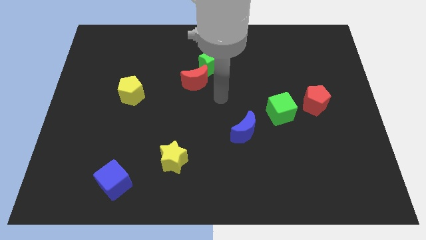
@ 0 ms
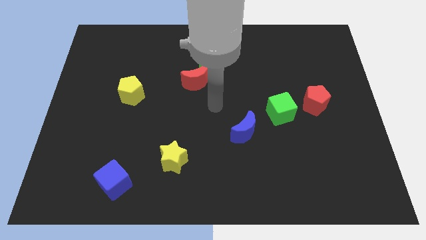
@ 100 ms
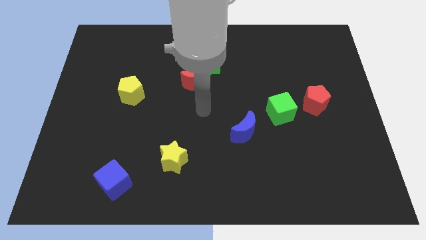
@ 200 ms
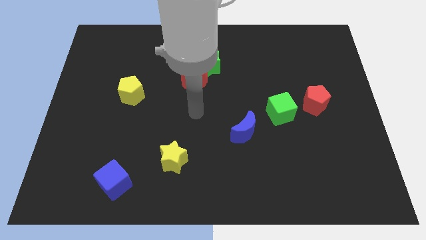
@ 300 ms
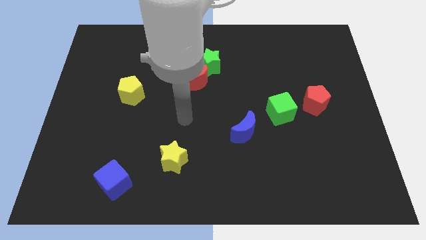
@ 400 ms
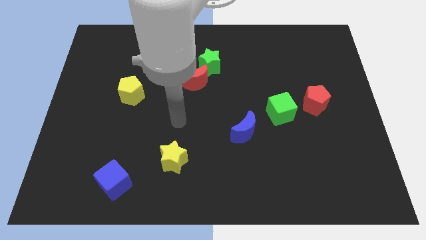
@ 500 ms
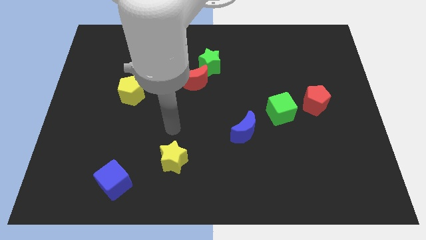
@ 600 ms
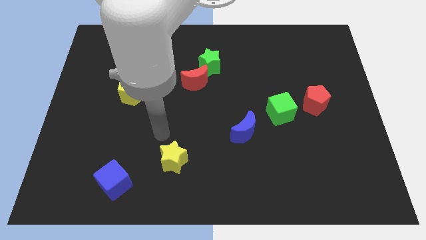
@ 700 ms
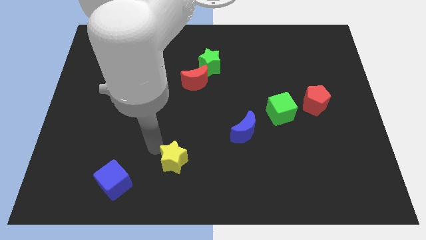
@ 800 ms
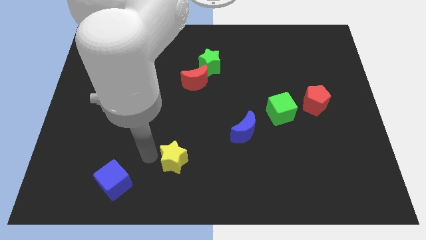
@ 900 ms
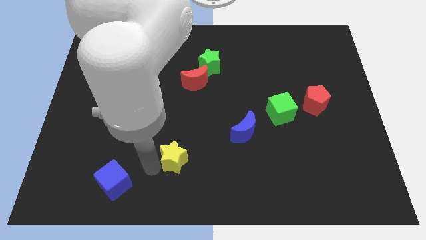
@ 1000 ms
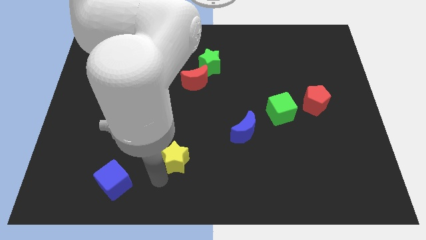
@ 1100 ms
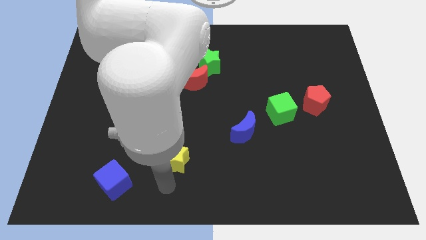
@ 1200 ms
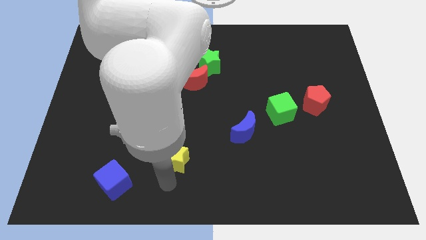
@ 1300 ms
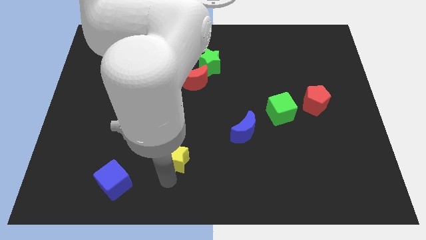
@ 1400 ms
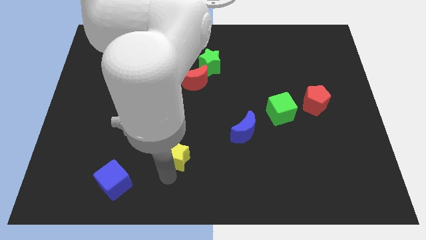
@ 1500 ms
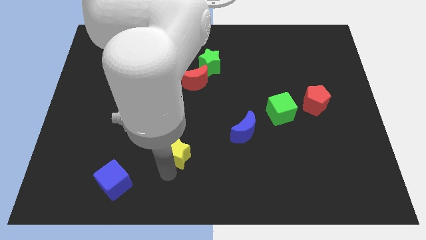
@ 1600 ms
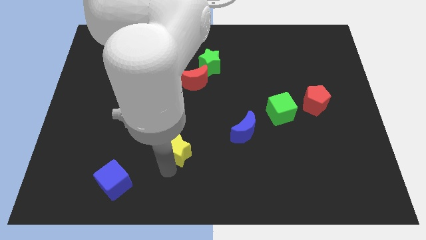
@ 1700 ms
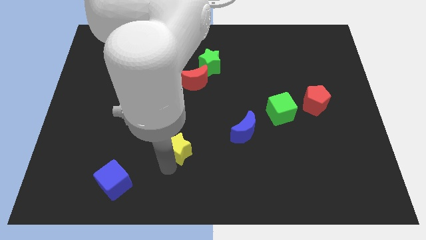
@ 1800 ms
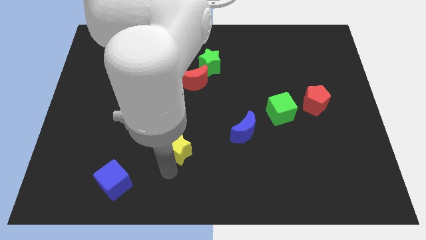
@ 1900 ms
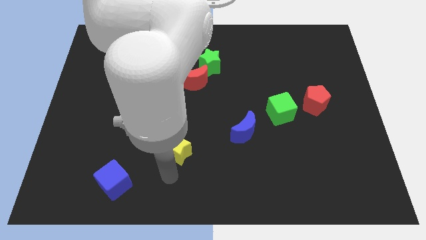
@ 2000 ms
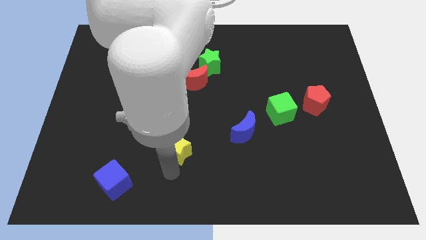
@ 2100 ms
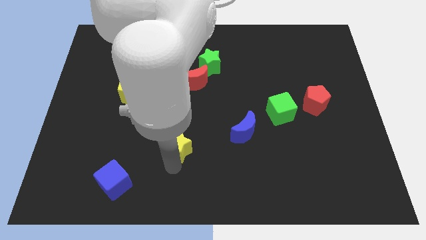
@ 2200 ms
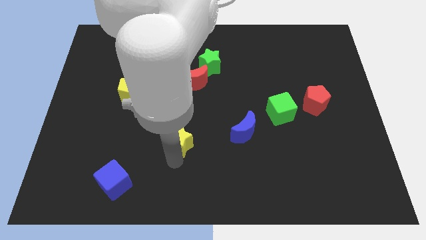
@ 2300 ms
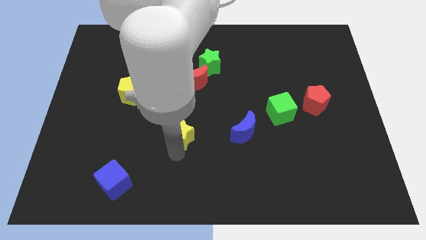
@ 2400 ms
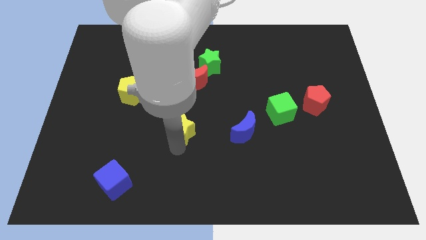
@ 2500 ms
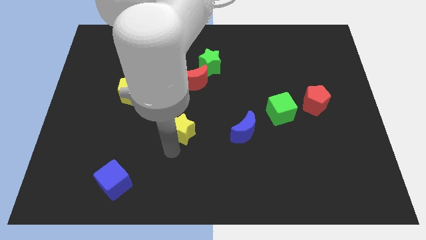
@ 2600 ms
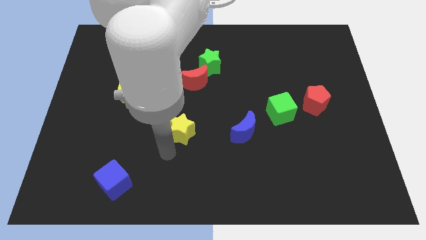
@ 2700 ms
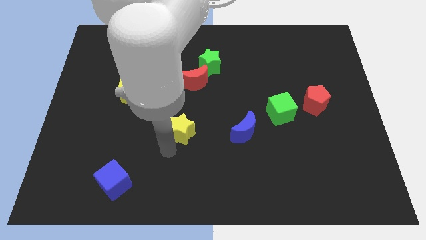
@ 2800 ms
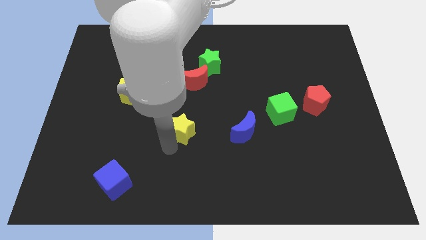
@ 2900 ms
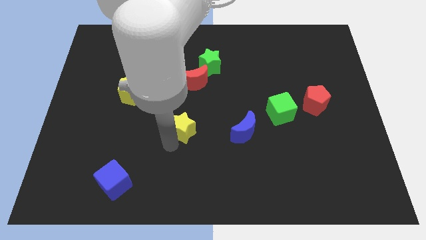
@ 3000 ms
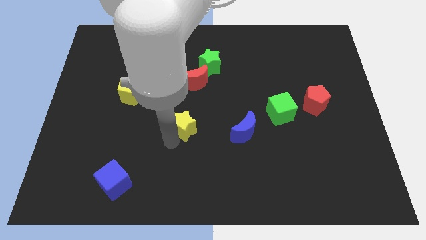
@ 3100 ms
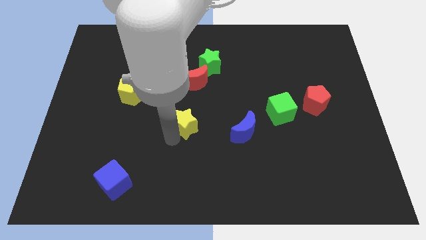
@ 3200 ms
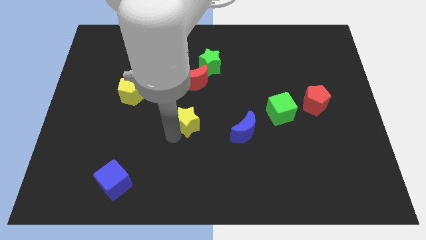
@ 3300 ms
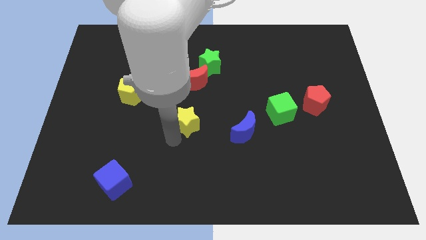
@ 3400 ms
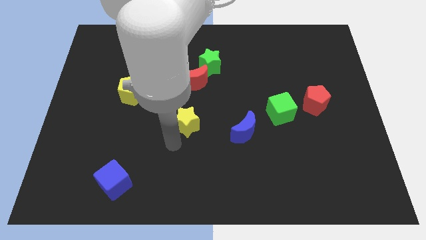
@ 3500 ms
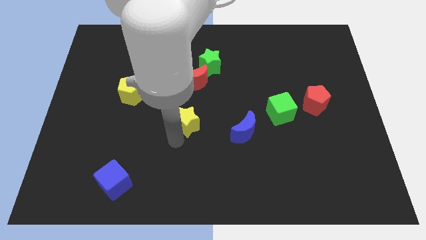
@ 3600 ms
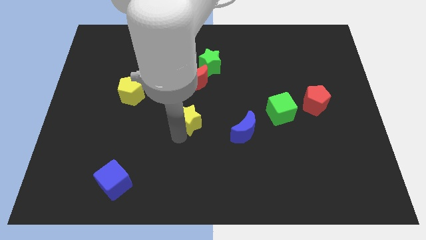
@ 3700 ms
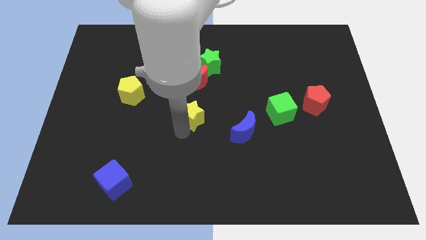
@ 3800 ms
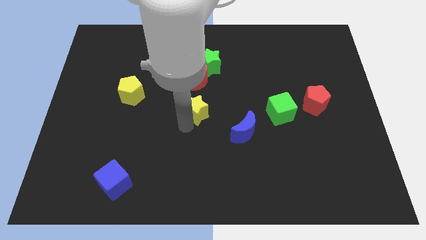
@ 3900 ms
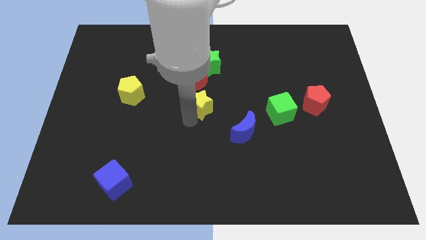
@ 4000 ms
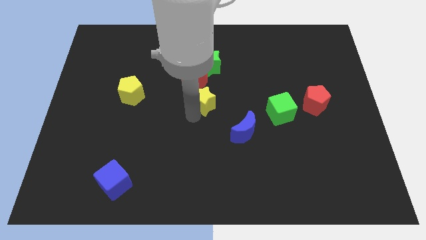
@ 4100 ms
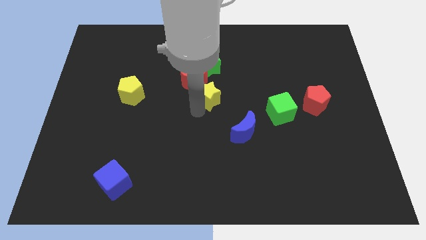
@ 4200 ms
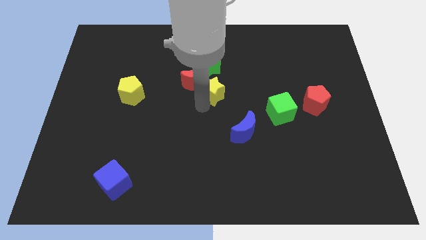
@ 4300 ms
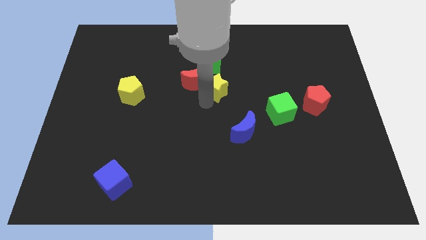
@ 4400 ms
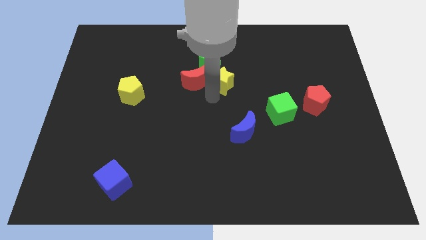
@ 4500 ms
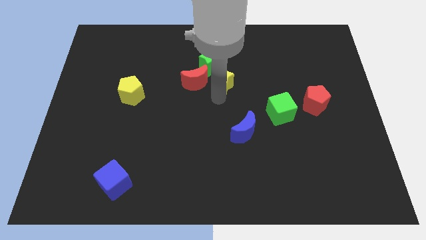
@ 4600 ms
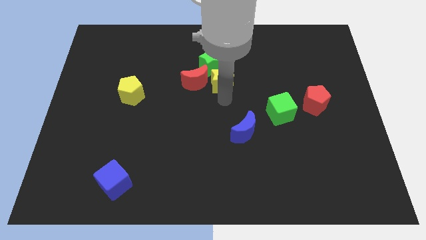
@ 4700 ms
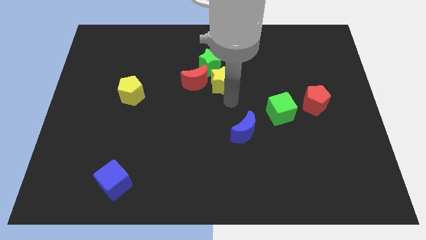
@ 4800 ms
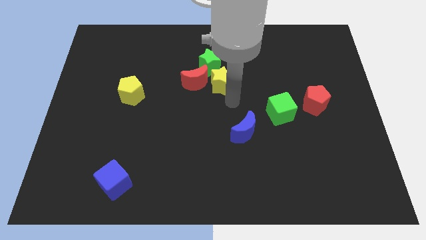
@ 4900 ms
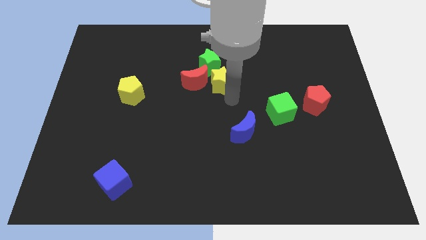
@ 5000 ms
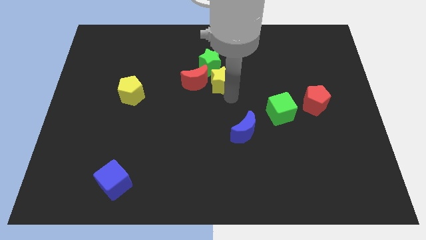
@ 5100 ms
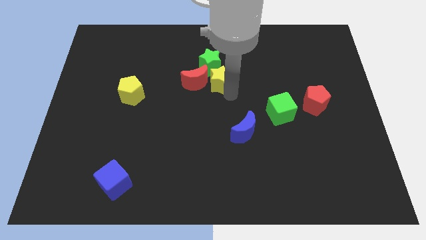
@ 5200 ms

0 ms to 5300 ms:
push the yellow star to the green star

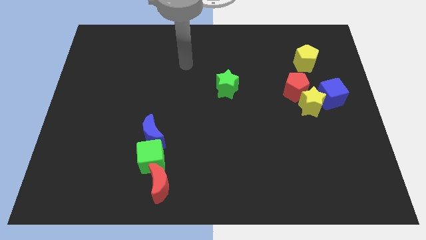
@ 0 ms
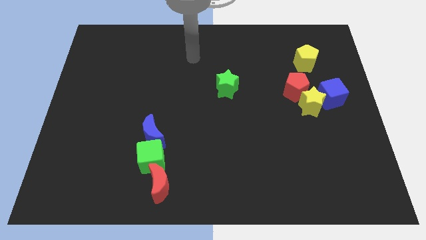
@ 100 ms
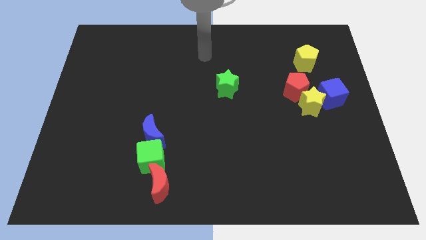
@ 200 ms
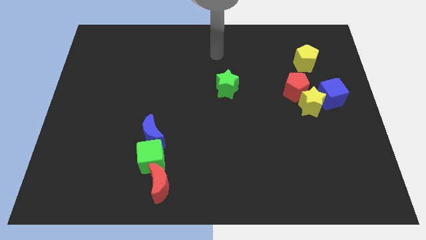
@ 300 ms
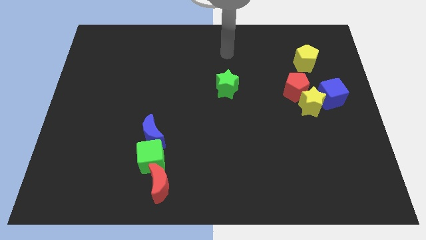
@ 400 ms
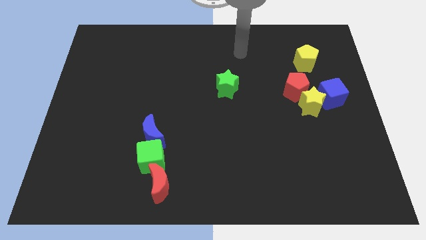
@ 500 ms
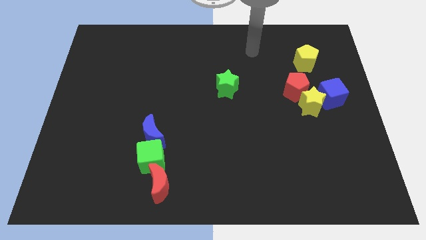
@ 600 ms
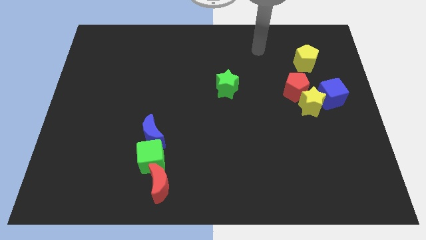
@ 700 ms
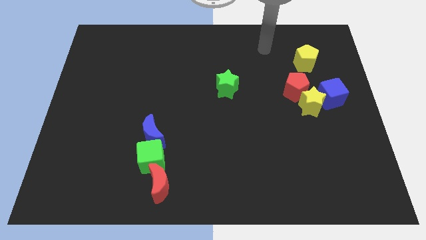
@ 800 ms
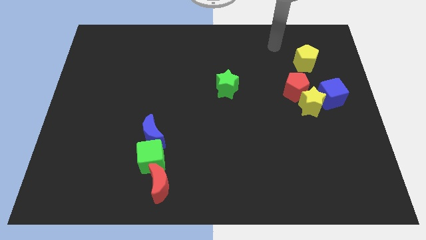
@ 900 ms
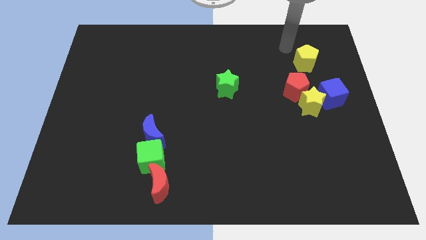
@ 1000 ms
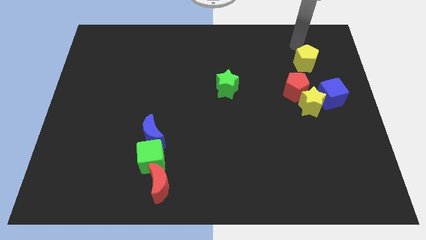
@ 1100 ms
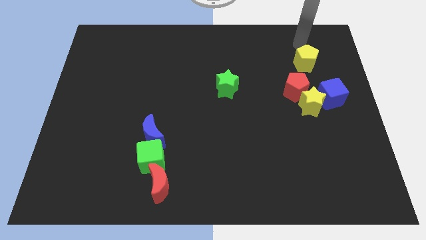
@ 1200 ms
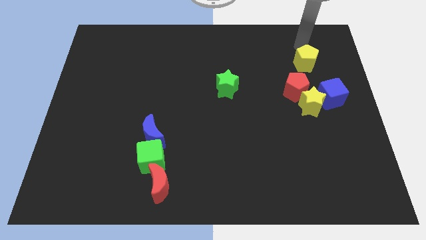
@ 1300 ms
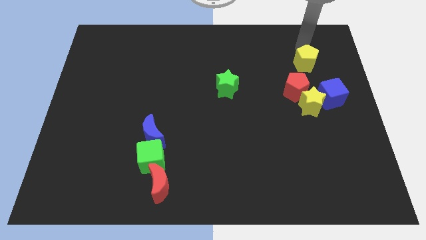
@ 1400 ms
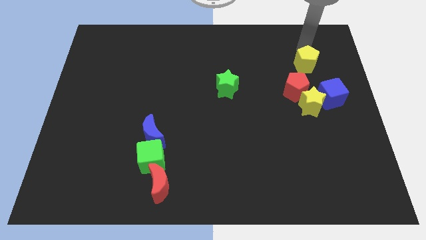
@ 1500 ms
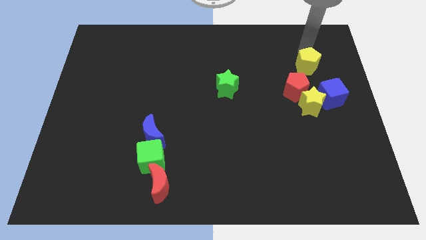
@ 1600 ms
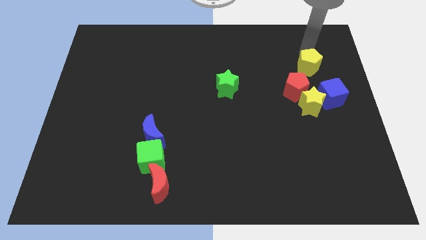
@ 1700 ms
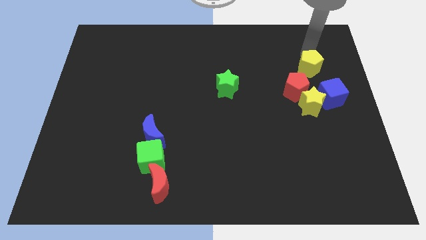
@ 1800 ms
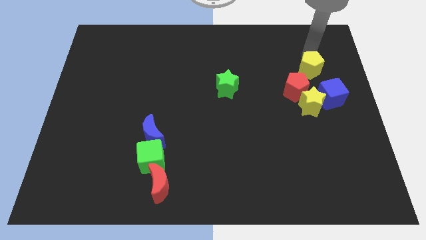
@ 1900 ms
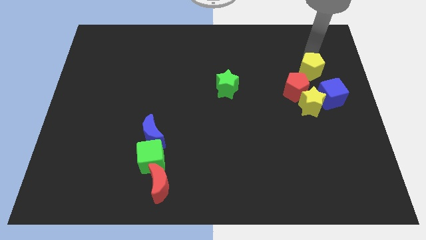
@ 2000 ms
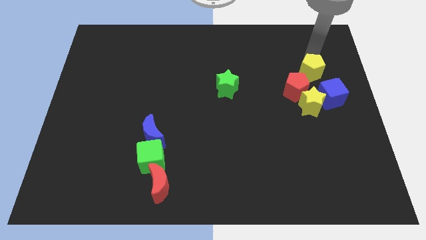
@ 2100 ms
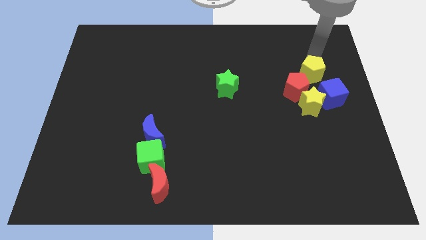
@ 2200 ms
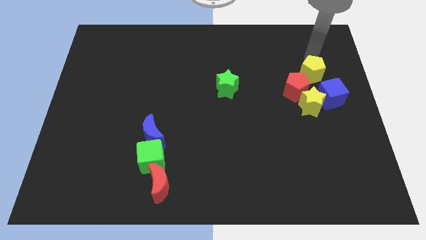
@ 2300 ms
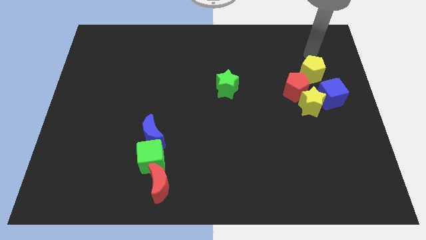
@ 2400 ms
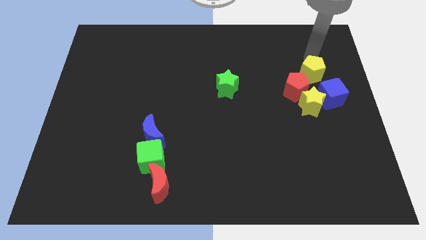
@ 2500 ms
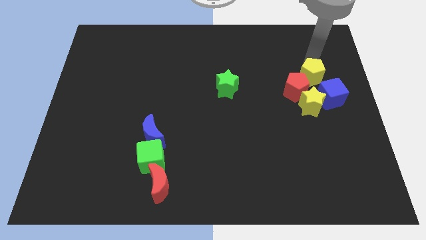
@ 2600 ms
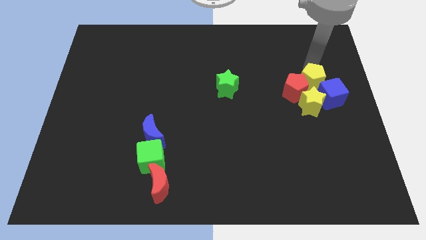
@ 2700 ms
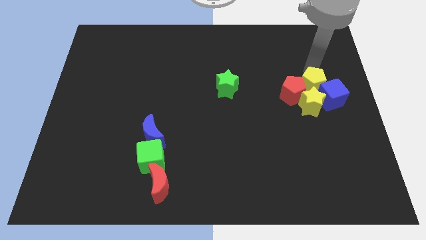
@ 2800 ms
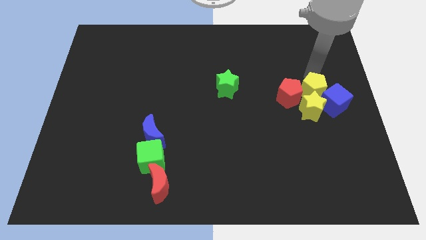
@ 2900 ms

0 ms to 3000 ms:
put the yellow pentagon close to the yellow star
